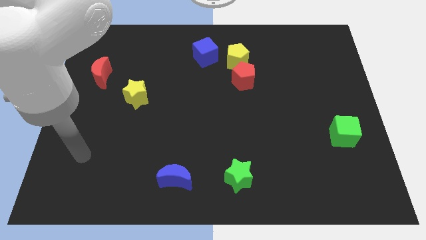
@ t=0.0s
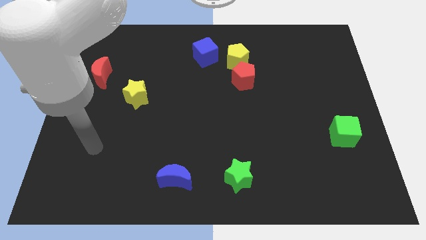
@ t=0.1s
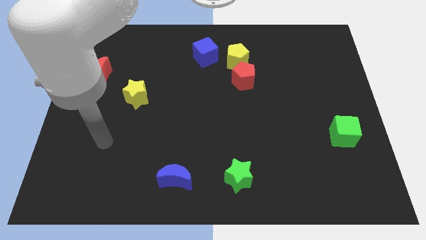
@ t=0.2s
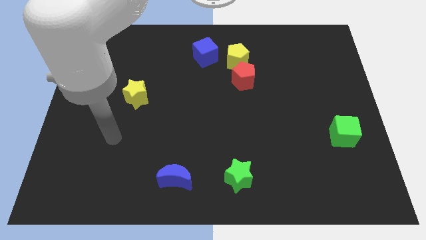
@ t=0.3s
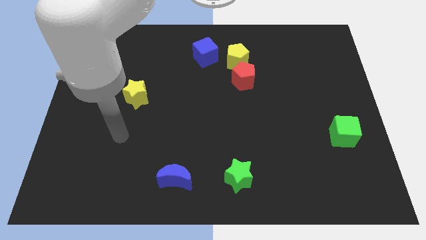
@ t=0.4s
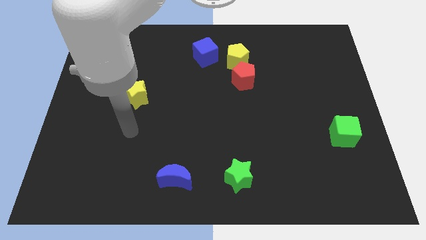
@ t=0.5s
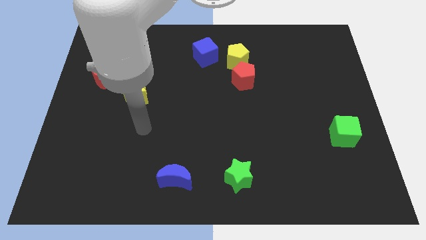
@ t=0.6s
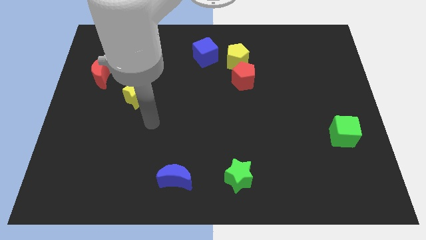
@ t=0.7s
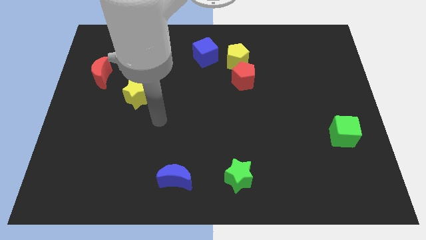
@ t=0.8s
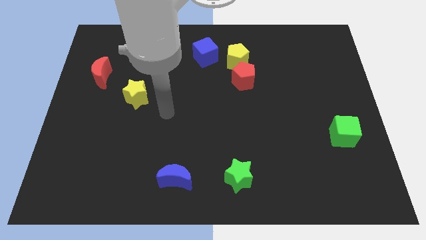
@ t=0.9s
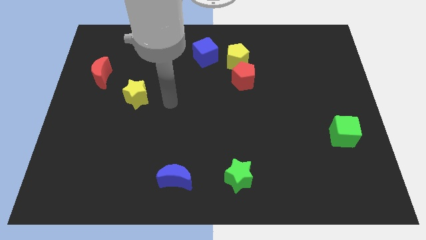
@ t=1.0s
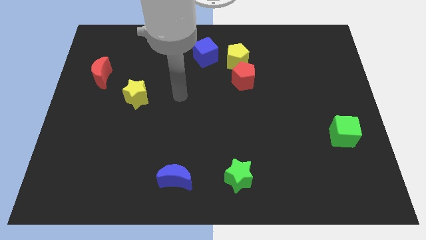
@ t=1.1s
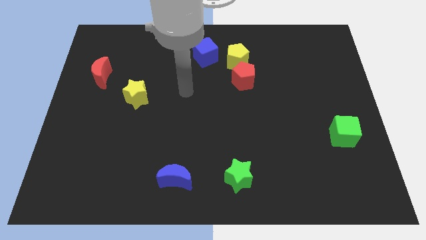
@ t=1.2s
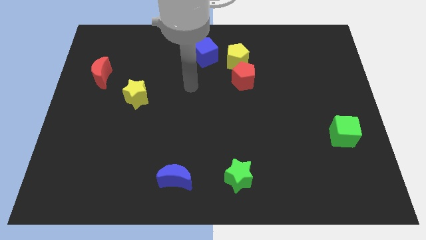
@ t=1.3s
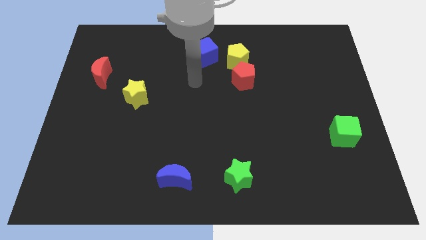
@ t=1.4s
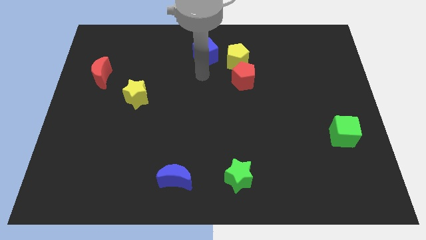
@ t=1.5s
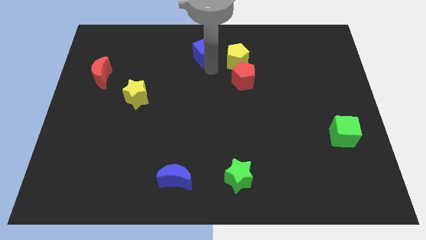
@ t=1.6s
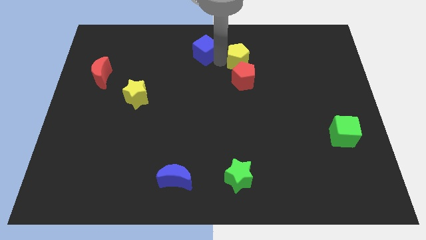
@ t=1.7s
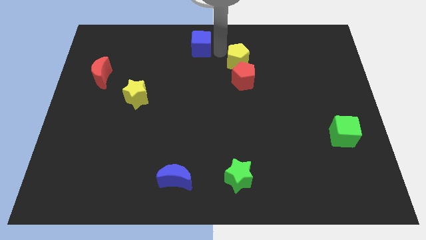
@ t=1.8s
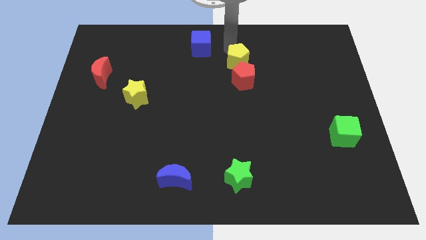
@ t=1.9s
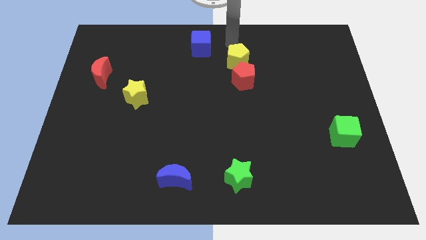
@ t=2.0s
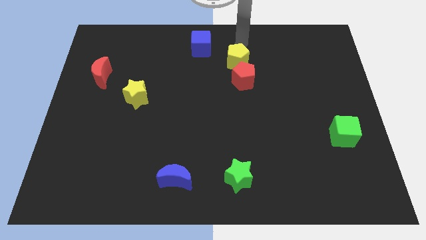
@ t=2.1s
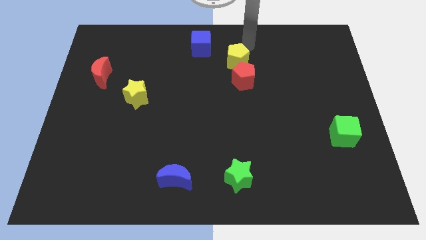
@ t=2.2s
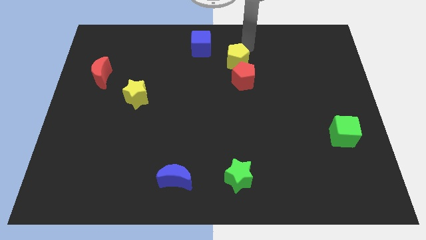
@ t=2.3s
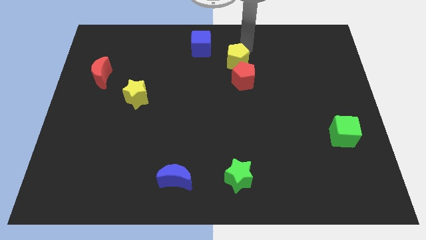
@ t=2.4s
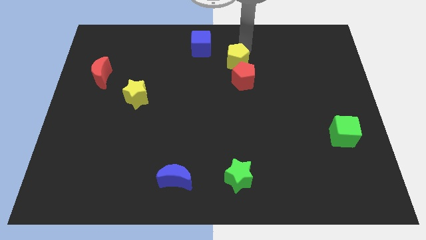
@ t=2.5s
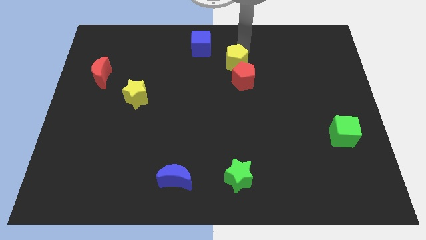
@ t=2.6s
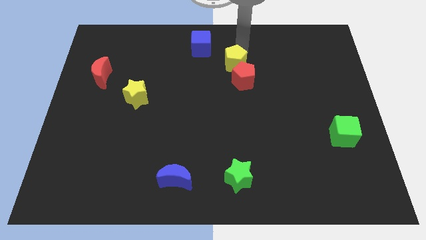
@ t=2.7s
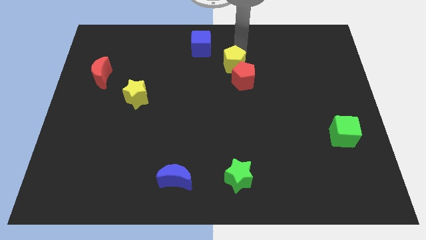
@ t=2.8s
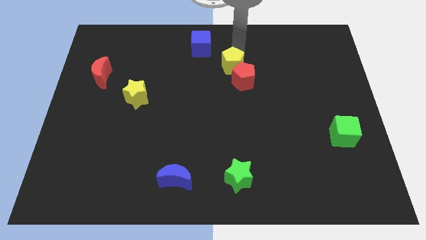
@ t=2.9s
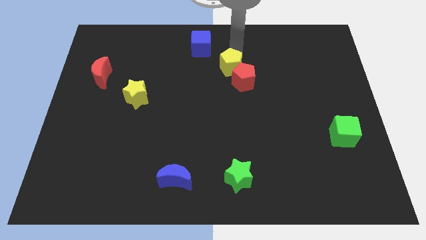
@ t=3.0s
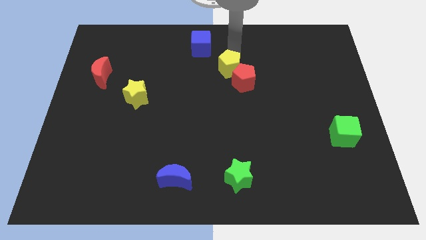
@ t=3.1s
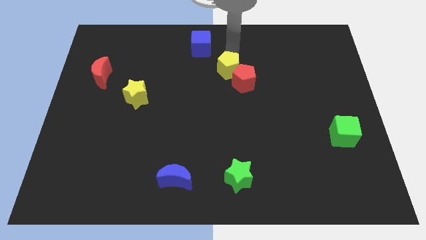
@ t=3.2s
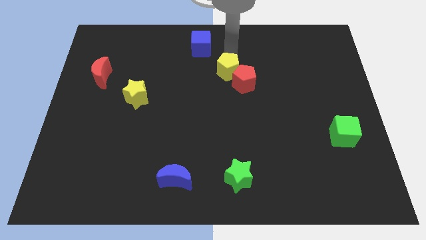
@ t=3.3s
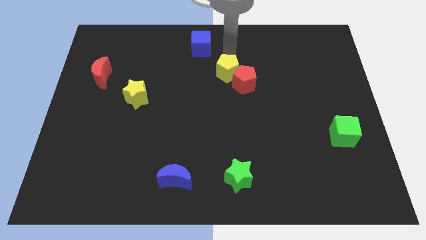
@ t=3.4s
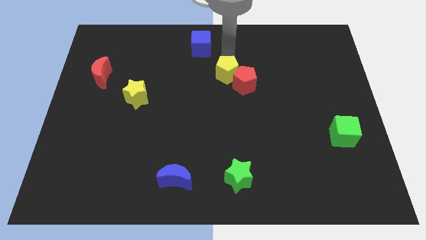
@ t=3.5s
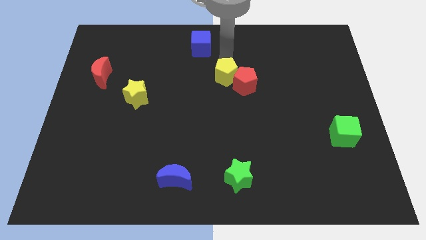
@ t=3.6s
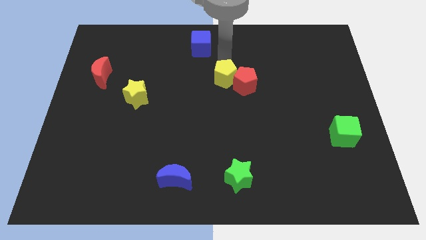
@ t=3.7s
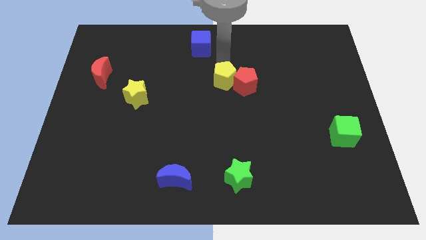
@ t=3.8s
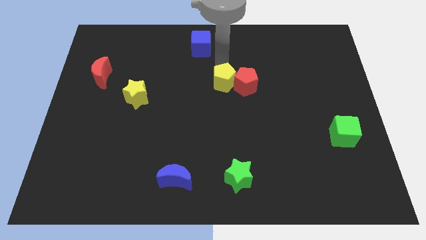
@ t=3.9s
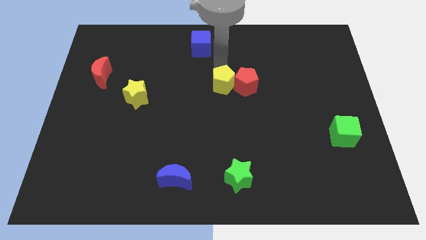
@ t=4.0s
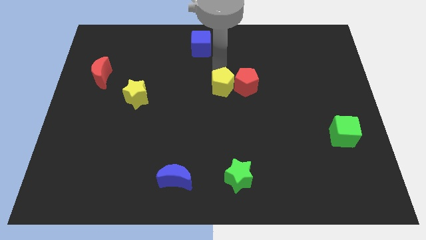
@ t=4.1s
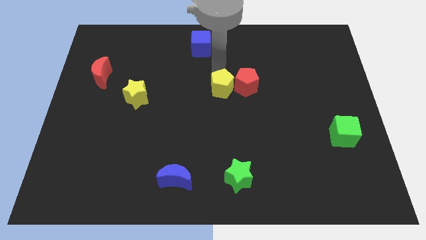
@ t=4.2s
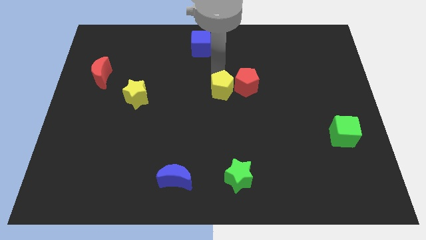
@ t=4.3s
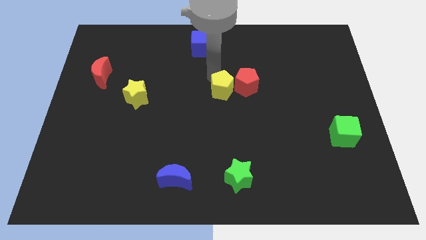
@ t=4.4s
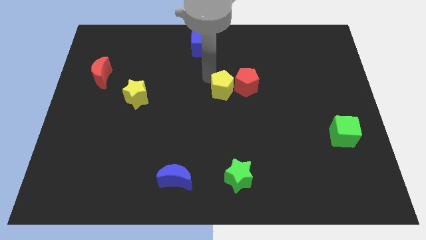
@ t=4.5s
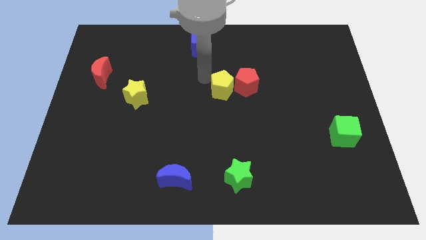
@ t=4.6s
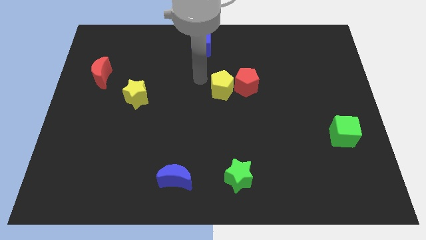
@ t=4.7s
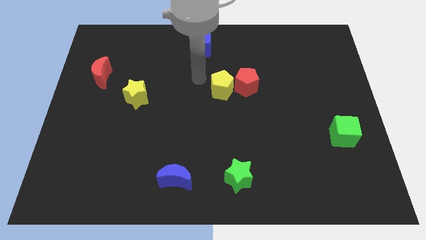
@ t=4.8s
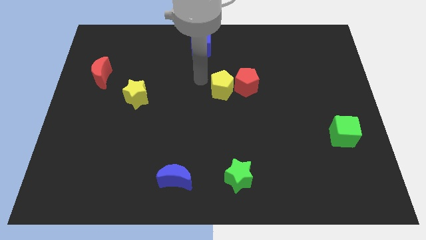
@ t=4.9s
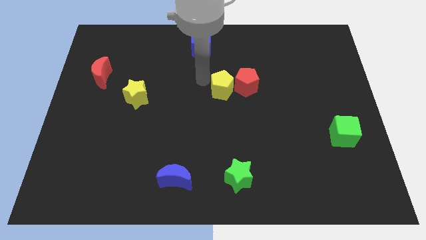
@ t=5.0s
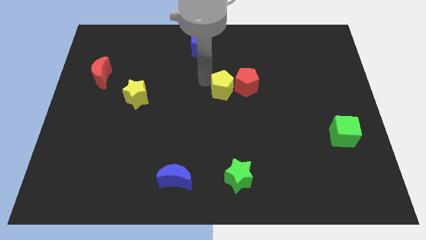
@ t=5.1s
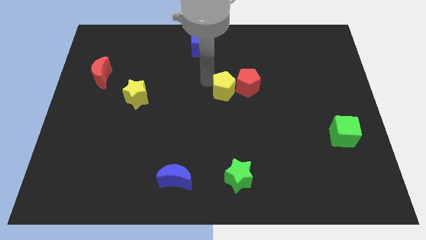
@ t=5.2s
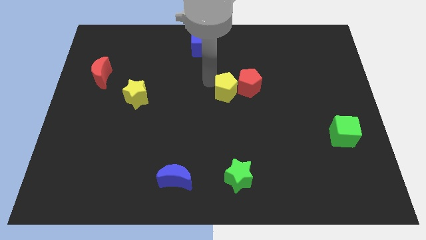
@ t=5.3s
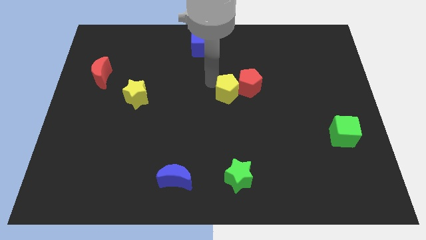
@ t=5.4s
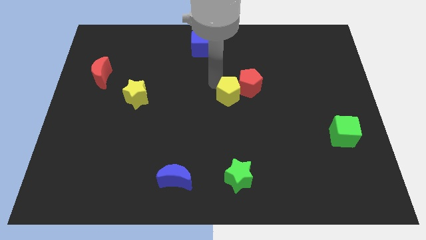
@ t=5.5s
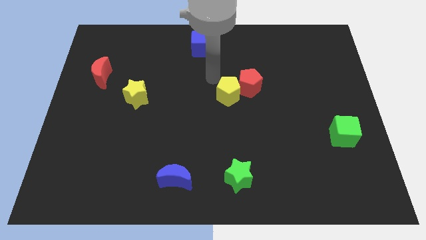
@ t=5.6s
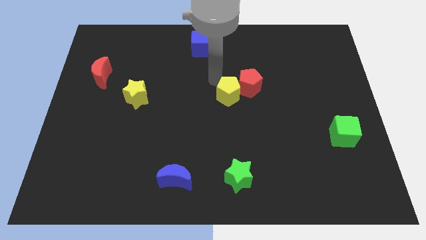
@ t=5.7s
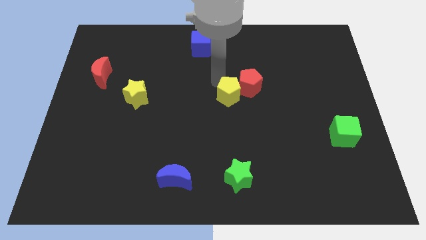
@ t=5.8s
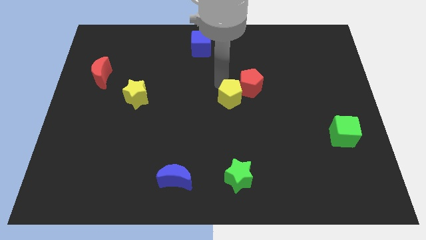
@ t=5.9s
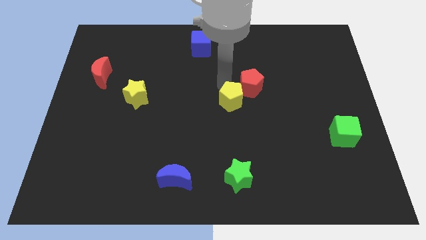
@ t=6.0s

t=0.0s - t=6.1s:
move the yellow pentagon to the bottom side of the red pentagon

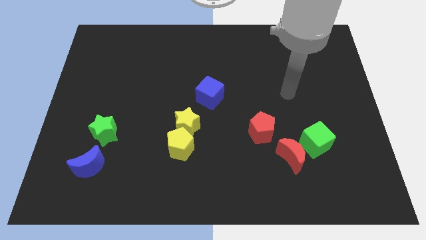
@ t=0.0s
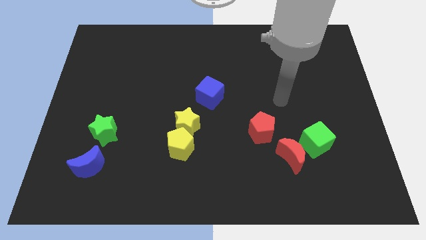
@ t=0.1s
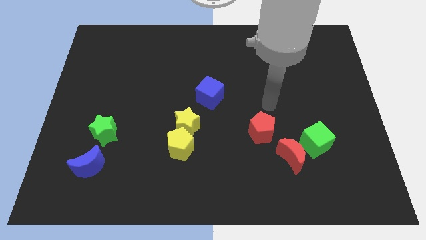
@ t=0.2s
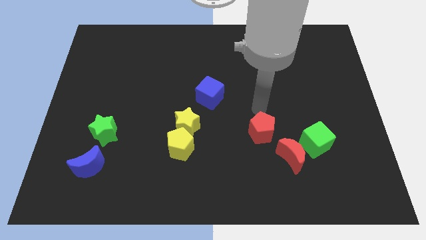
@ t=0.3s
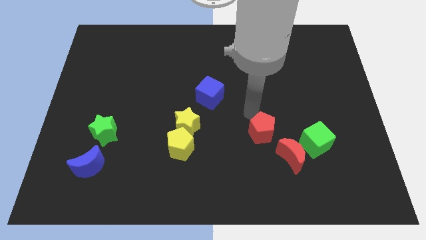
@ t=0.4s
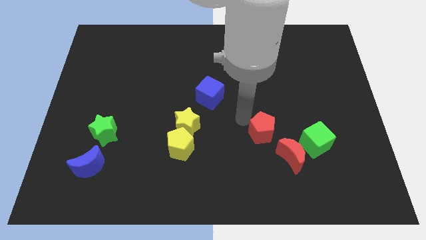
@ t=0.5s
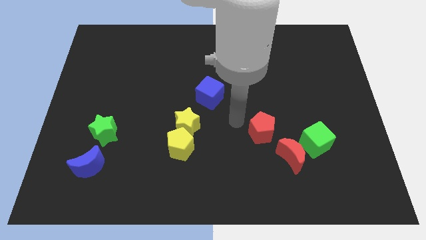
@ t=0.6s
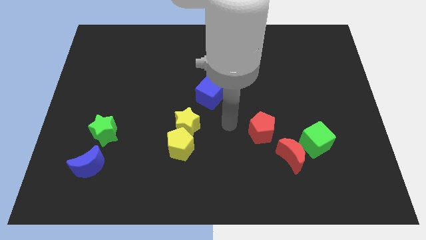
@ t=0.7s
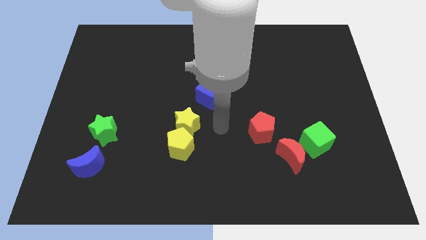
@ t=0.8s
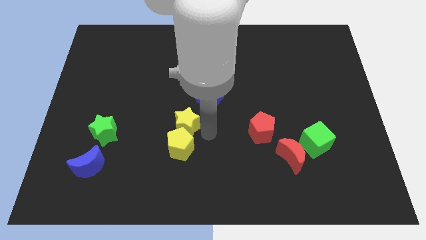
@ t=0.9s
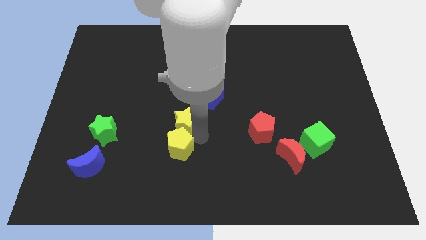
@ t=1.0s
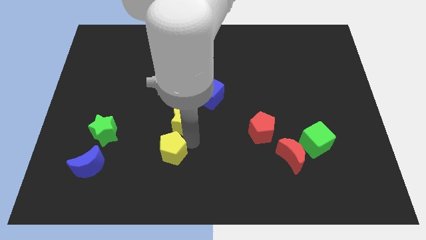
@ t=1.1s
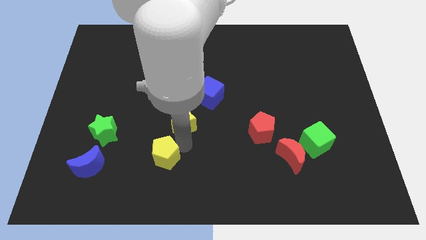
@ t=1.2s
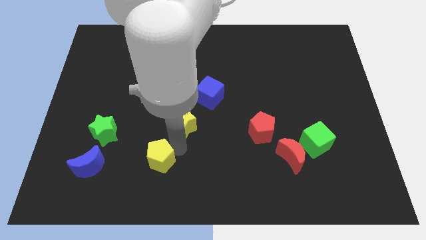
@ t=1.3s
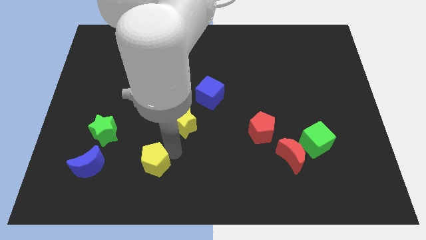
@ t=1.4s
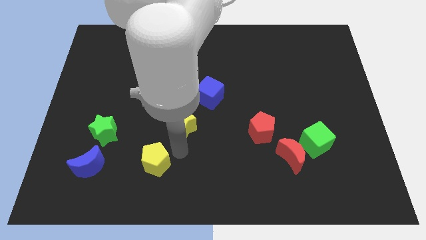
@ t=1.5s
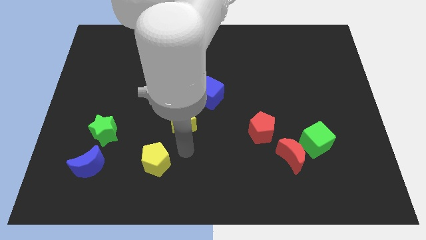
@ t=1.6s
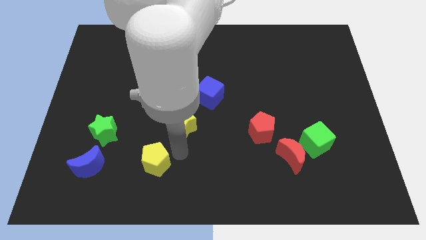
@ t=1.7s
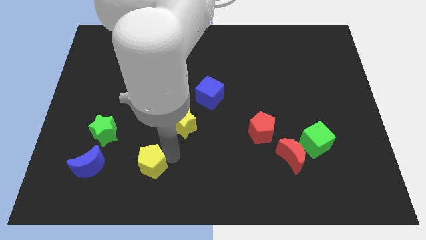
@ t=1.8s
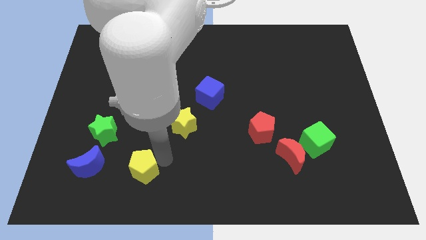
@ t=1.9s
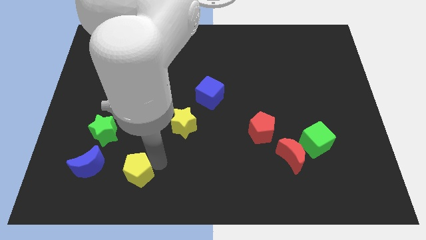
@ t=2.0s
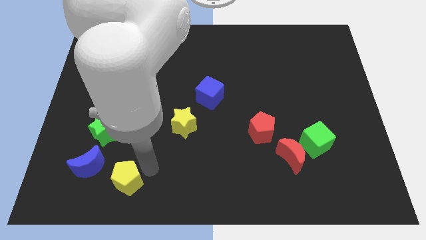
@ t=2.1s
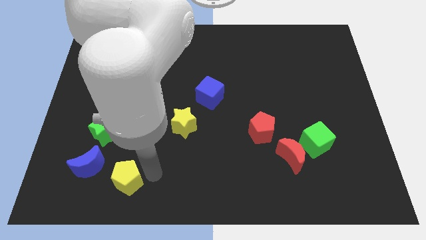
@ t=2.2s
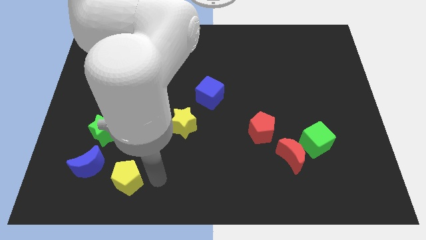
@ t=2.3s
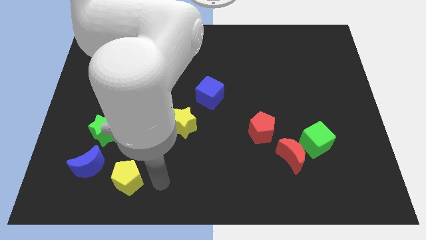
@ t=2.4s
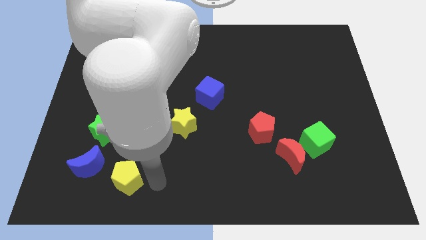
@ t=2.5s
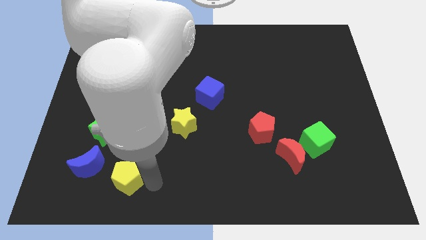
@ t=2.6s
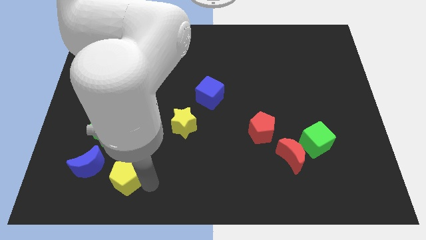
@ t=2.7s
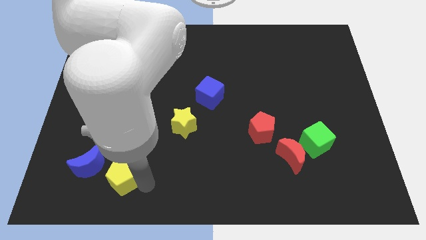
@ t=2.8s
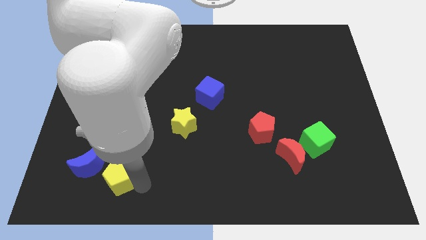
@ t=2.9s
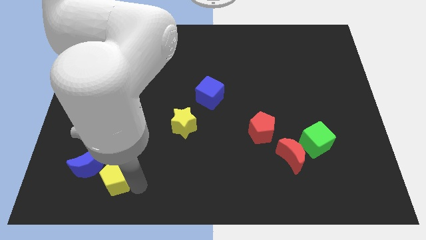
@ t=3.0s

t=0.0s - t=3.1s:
move the yellow pentagon to the bottom of the green star
